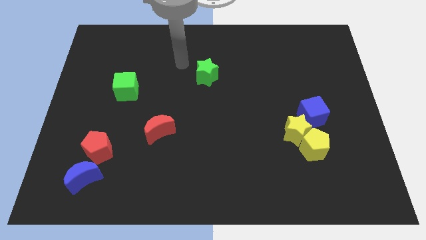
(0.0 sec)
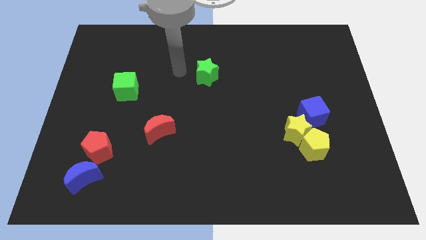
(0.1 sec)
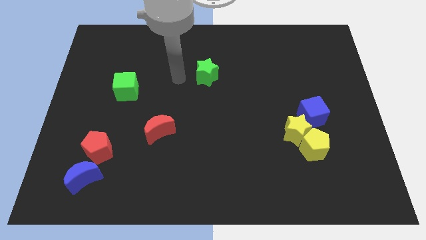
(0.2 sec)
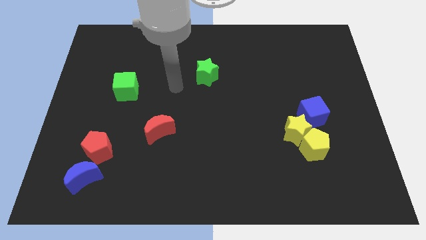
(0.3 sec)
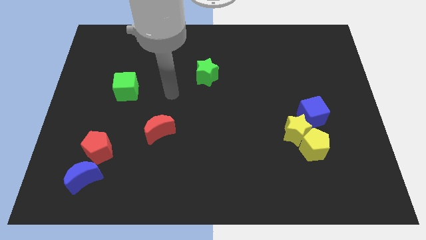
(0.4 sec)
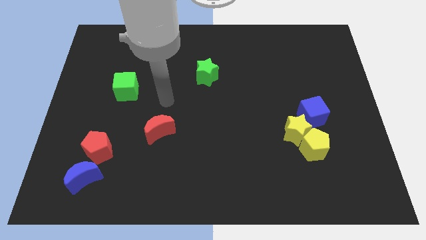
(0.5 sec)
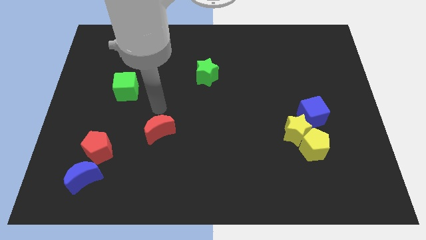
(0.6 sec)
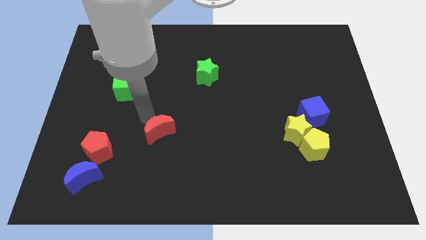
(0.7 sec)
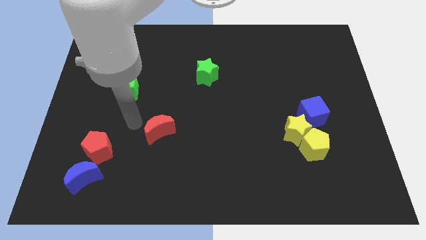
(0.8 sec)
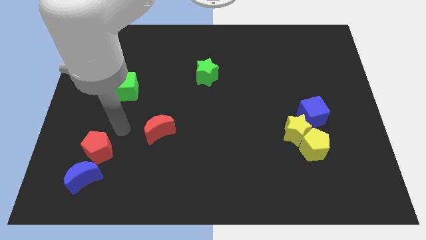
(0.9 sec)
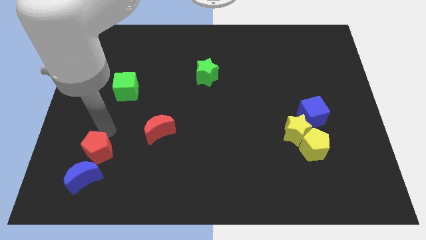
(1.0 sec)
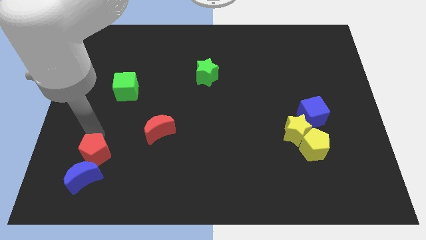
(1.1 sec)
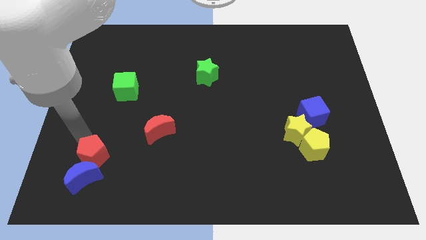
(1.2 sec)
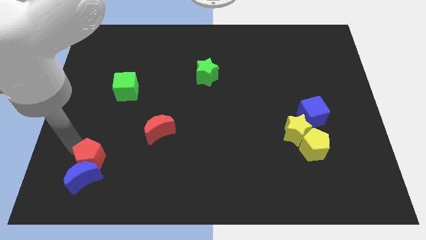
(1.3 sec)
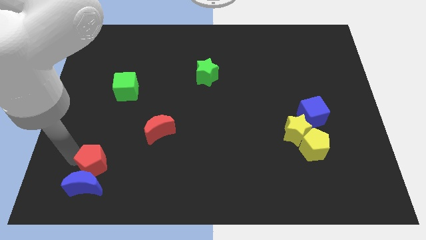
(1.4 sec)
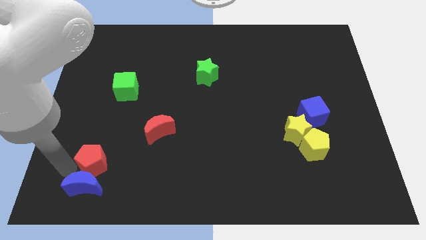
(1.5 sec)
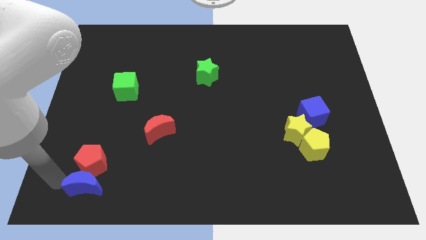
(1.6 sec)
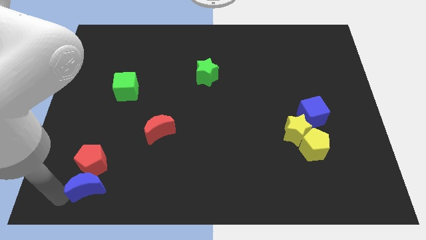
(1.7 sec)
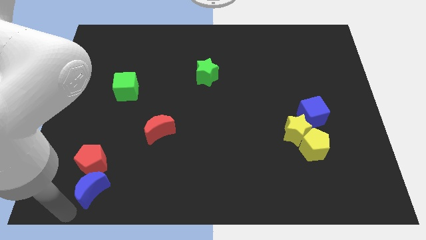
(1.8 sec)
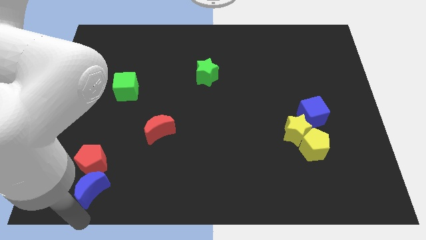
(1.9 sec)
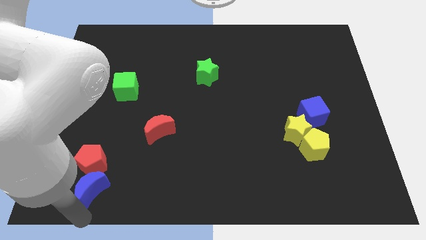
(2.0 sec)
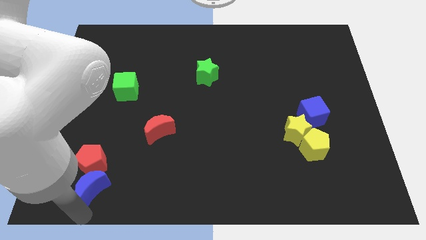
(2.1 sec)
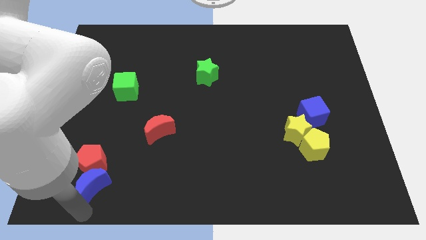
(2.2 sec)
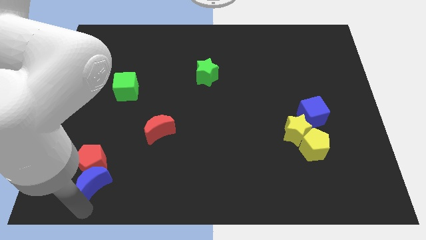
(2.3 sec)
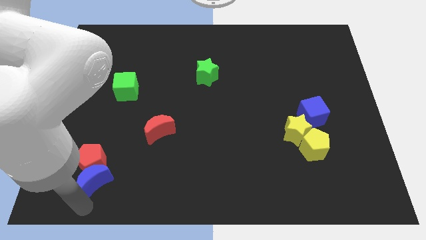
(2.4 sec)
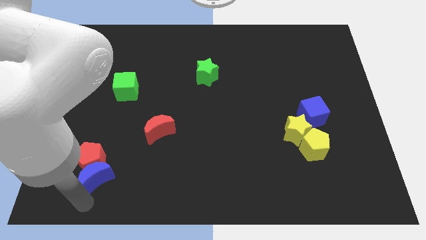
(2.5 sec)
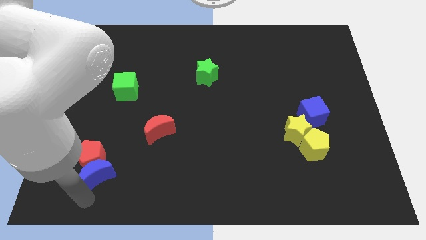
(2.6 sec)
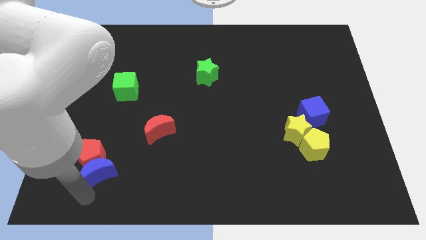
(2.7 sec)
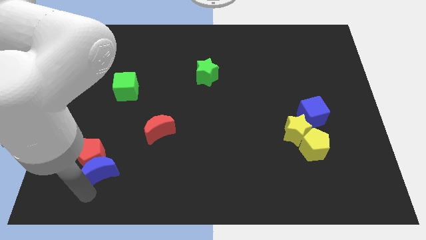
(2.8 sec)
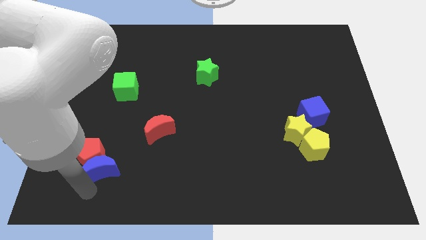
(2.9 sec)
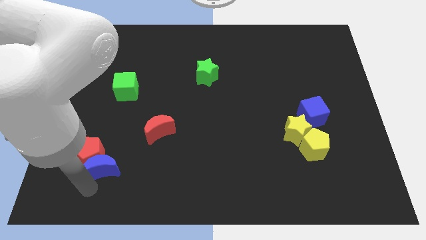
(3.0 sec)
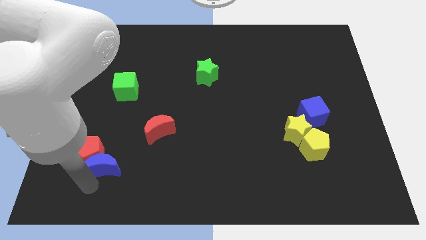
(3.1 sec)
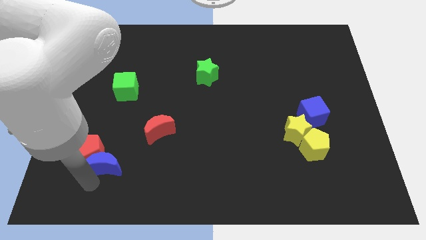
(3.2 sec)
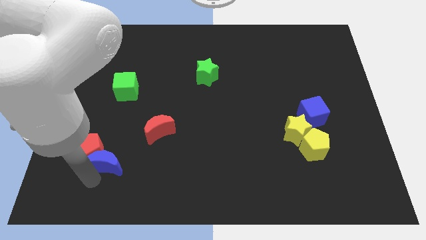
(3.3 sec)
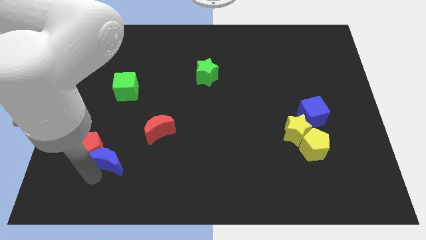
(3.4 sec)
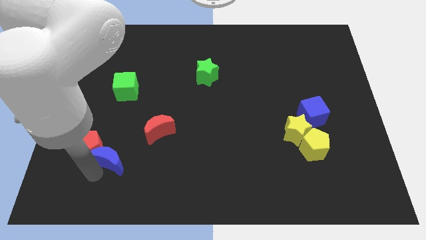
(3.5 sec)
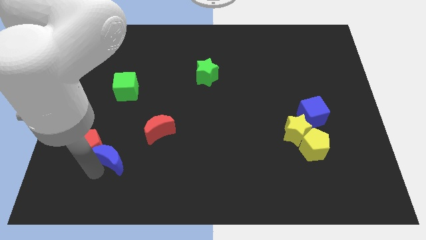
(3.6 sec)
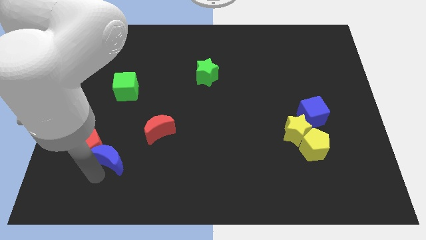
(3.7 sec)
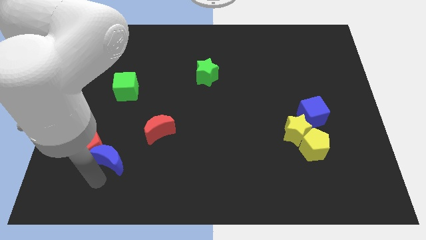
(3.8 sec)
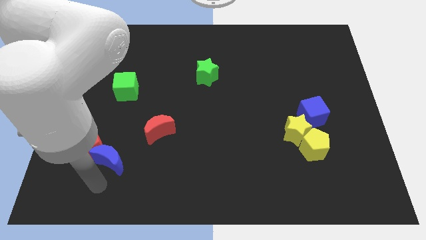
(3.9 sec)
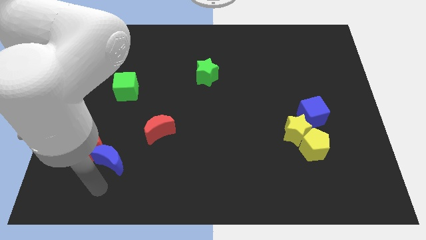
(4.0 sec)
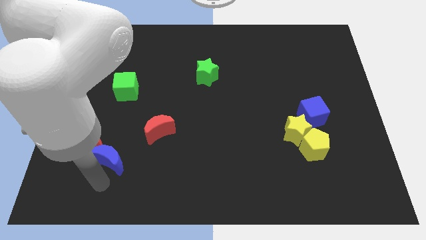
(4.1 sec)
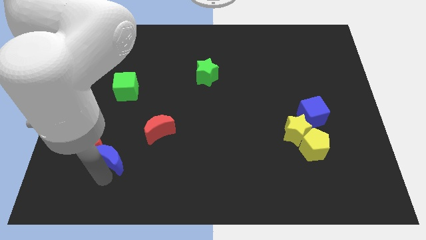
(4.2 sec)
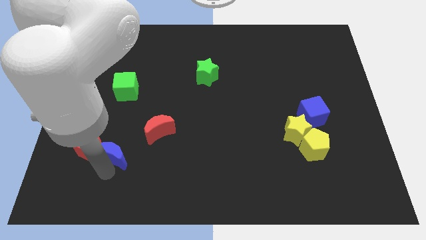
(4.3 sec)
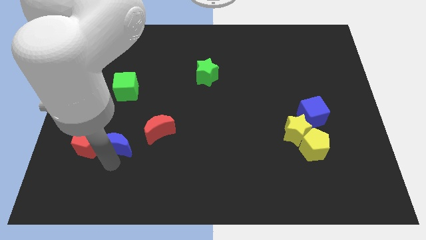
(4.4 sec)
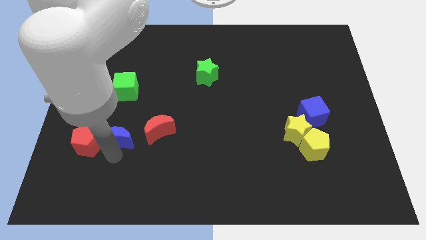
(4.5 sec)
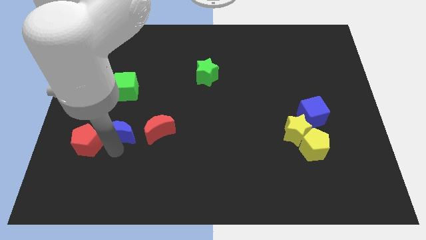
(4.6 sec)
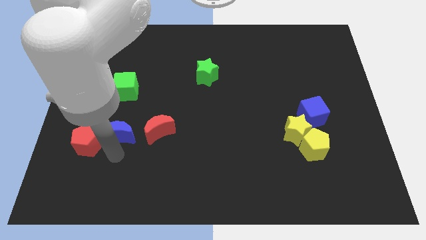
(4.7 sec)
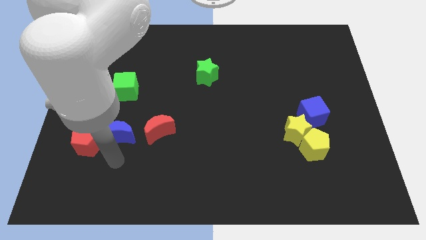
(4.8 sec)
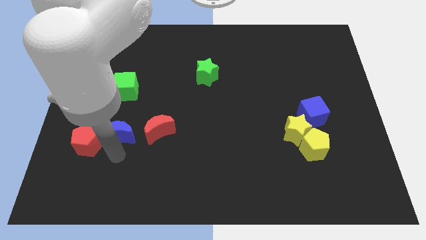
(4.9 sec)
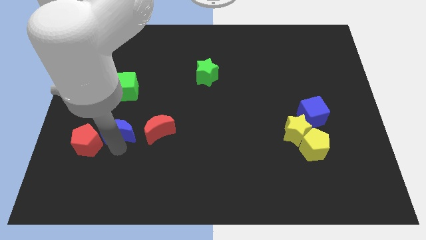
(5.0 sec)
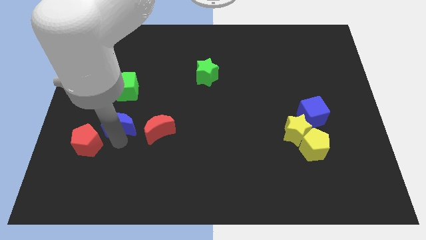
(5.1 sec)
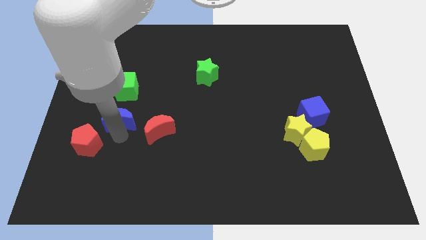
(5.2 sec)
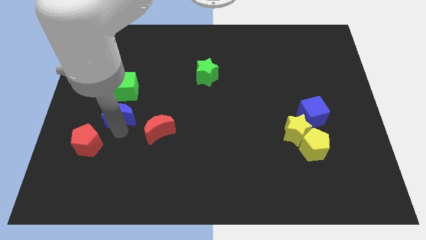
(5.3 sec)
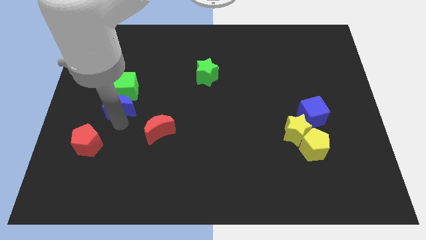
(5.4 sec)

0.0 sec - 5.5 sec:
push the blue moon next to the green cube

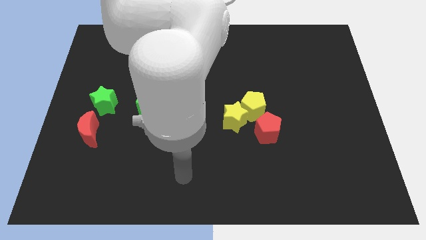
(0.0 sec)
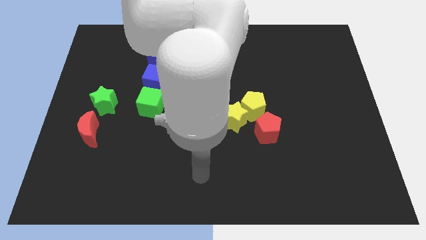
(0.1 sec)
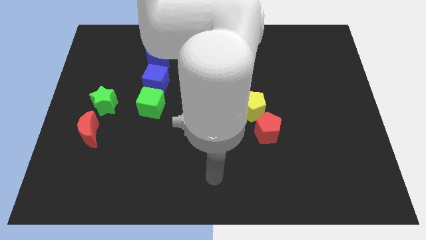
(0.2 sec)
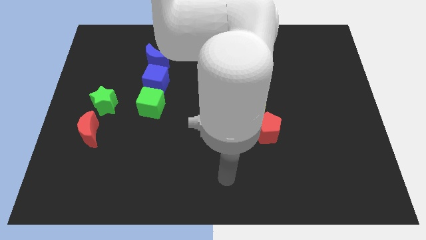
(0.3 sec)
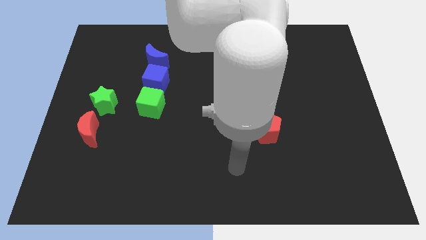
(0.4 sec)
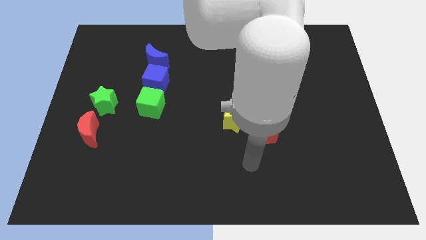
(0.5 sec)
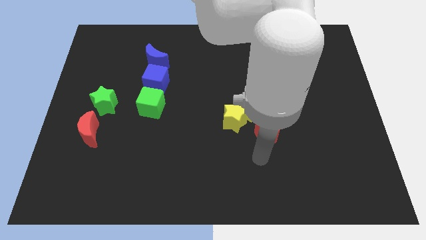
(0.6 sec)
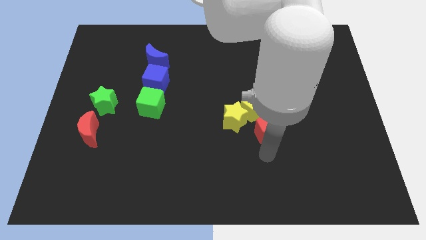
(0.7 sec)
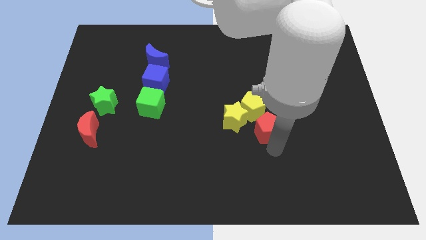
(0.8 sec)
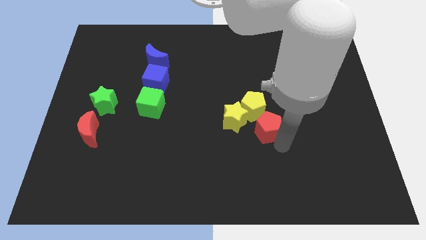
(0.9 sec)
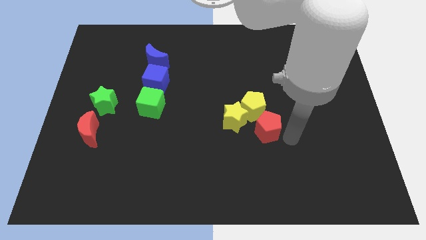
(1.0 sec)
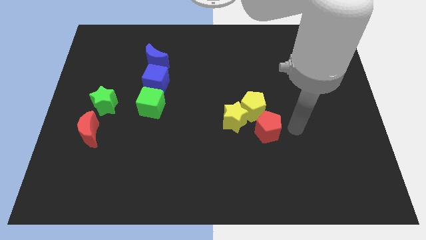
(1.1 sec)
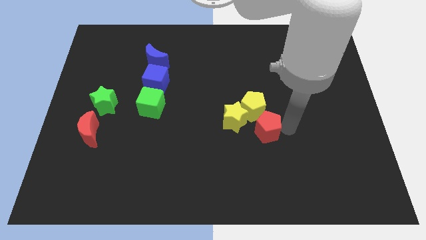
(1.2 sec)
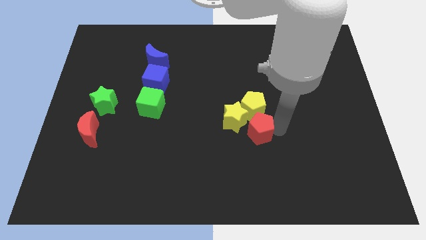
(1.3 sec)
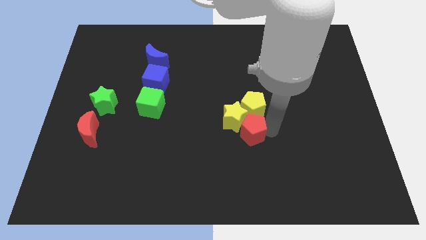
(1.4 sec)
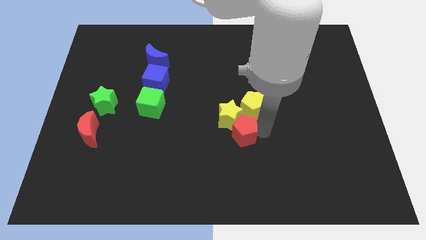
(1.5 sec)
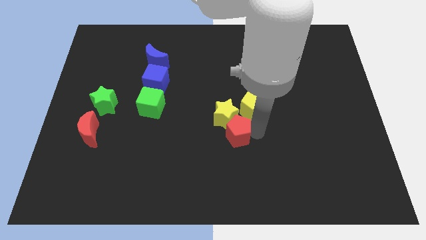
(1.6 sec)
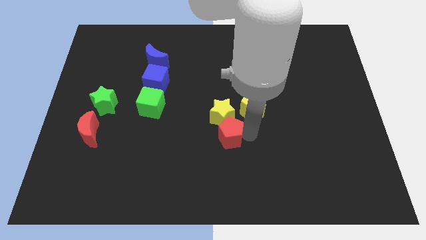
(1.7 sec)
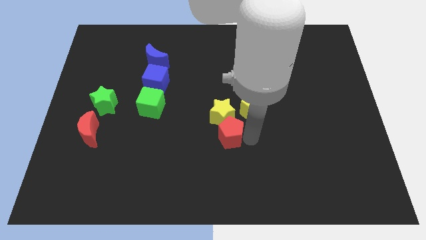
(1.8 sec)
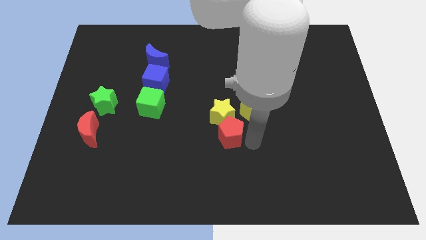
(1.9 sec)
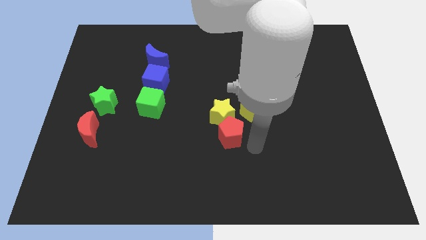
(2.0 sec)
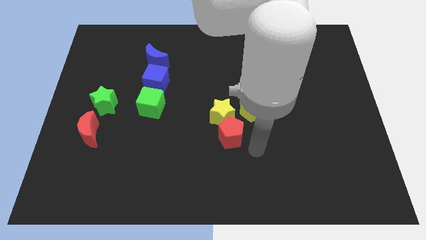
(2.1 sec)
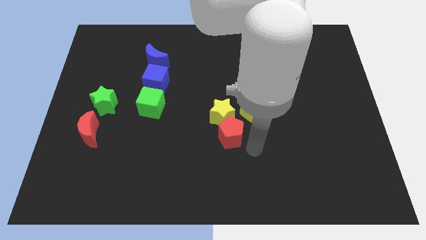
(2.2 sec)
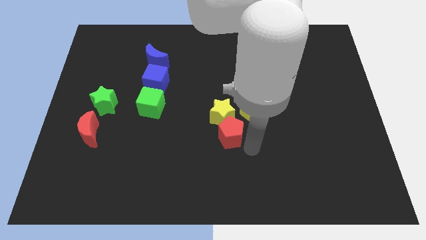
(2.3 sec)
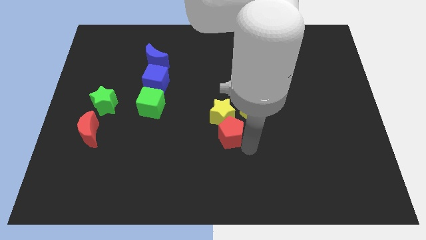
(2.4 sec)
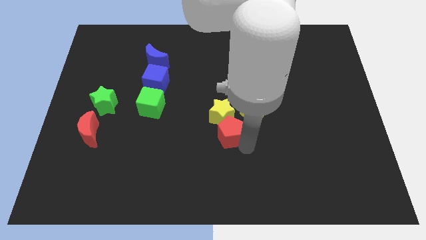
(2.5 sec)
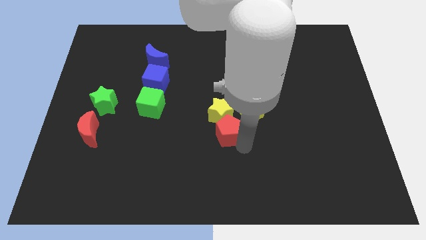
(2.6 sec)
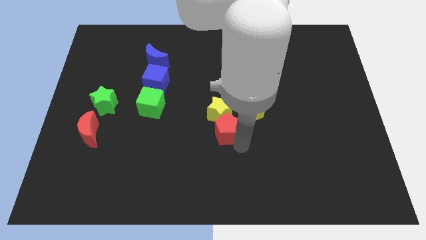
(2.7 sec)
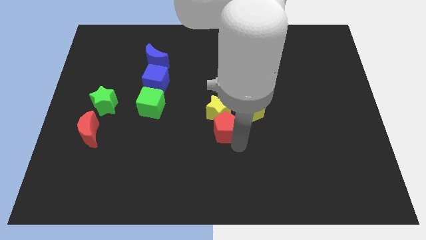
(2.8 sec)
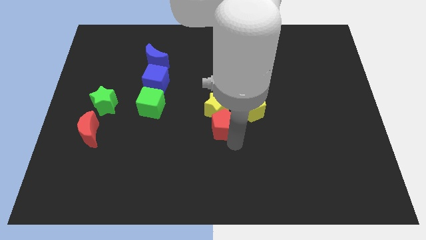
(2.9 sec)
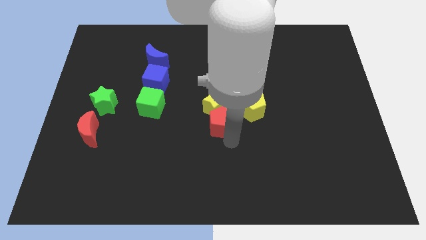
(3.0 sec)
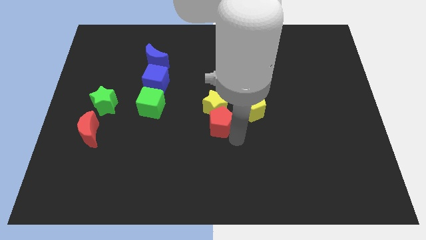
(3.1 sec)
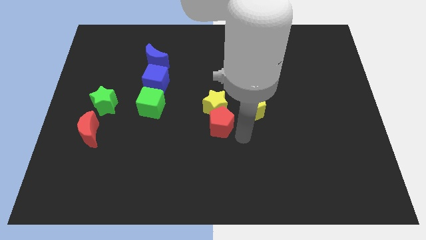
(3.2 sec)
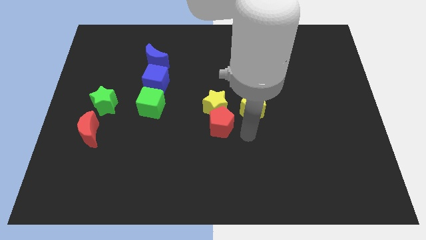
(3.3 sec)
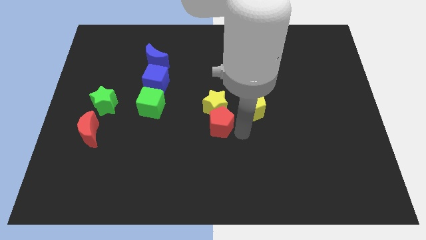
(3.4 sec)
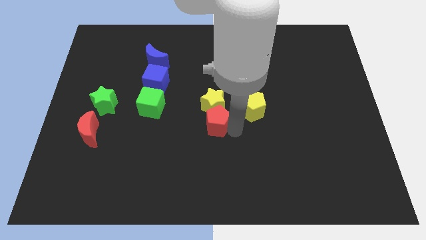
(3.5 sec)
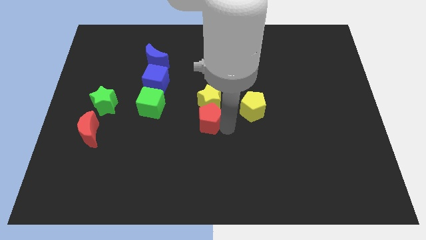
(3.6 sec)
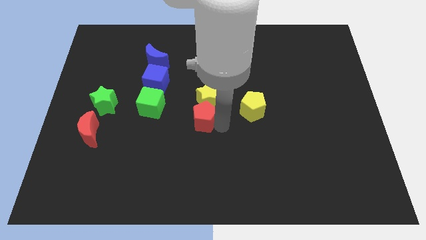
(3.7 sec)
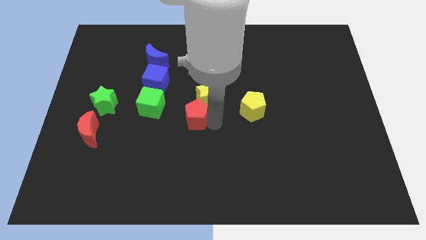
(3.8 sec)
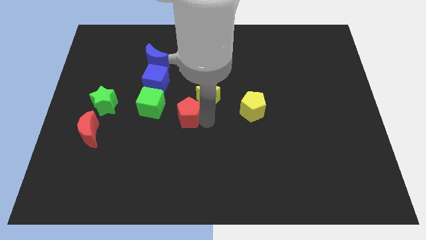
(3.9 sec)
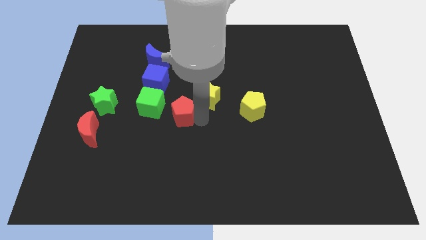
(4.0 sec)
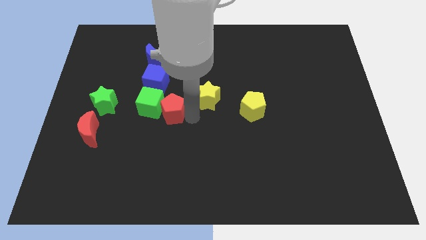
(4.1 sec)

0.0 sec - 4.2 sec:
push the red pentagon towards the green cube
